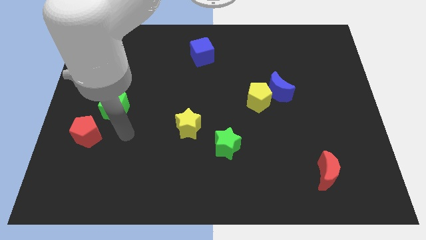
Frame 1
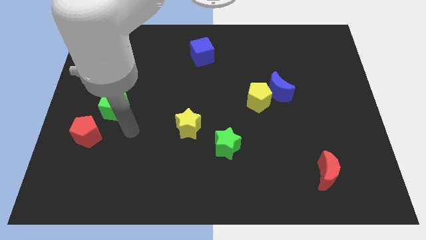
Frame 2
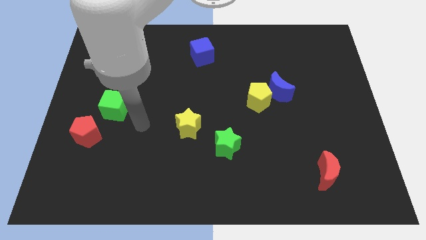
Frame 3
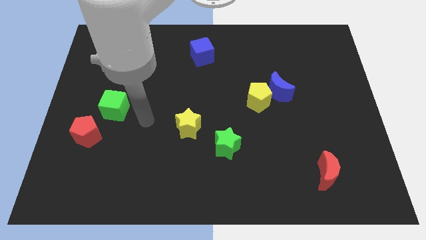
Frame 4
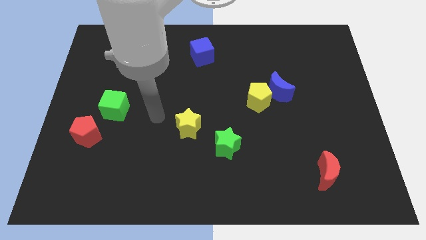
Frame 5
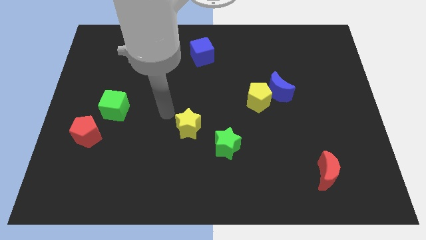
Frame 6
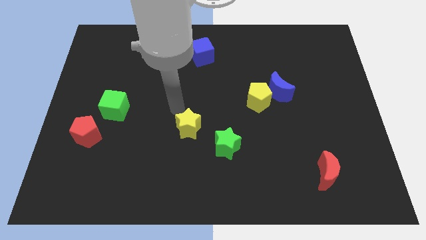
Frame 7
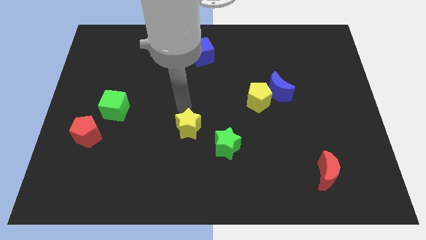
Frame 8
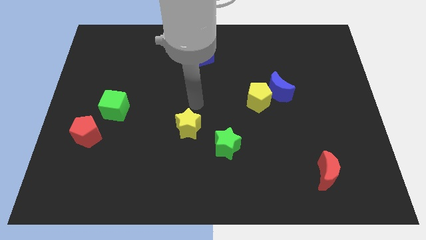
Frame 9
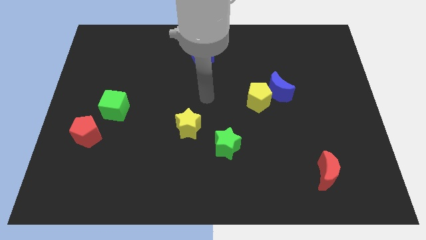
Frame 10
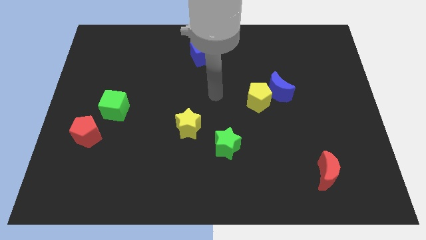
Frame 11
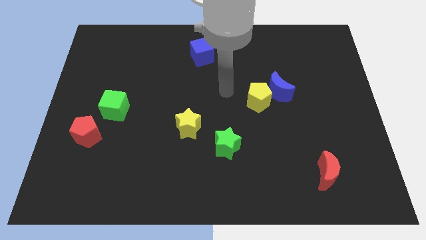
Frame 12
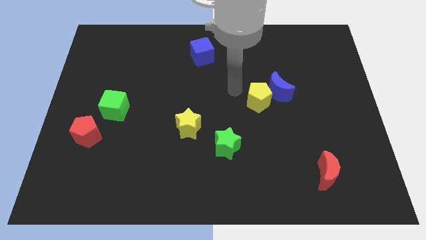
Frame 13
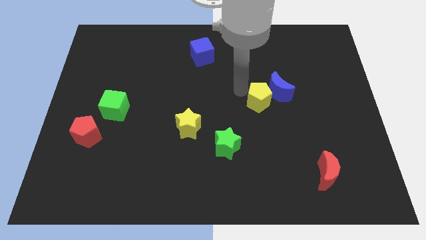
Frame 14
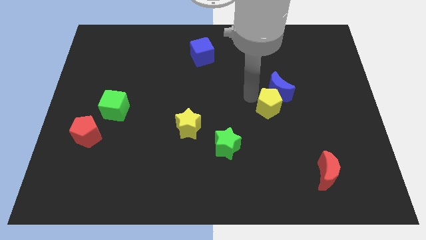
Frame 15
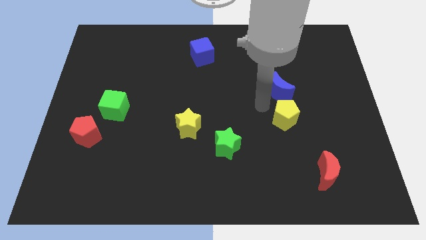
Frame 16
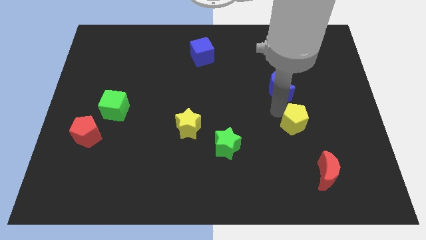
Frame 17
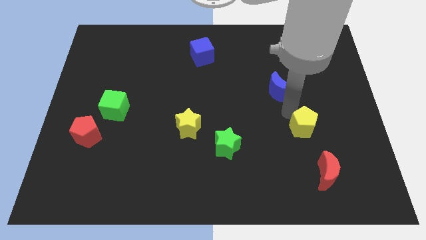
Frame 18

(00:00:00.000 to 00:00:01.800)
pull the blue moon apart from the yellow pentagon

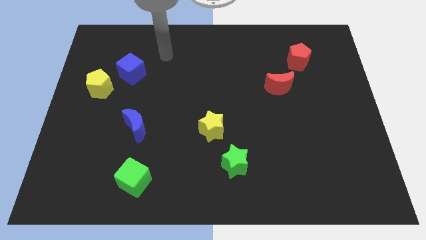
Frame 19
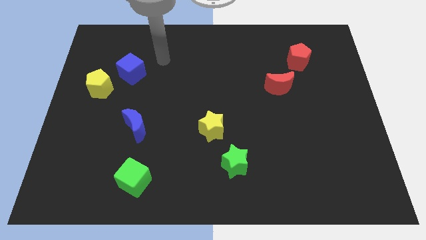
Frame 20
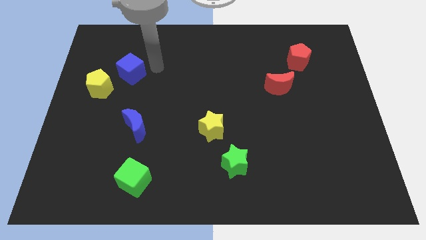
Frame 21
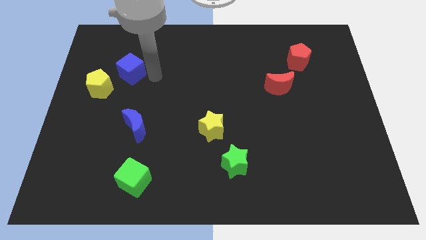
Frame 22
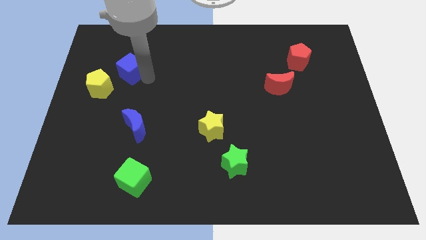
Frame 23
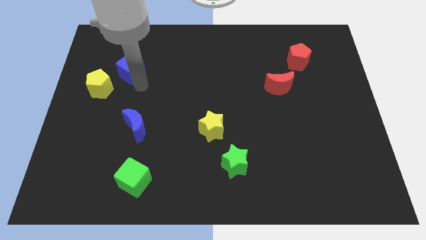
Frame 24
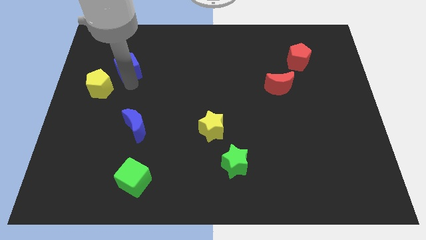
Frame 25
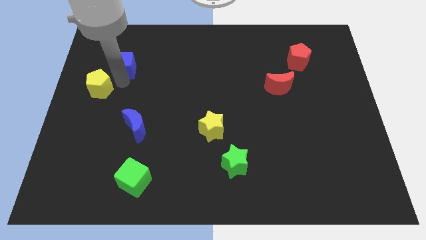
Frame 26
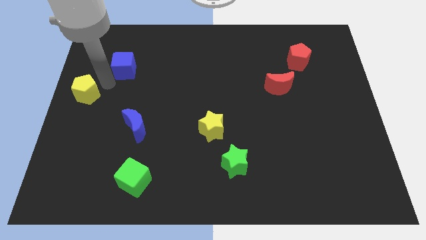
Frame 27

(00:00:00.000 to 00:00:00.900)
move the blue cube away from the yellow pentagon

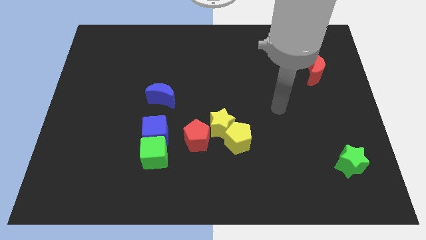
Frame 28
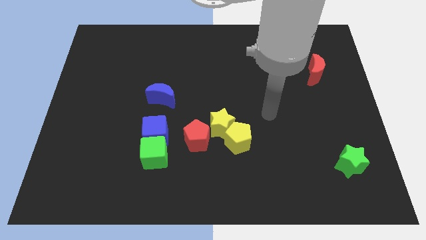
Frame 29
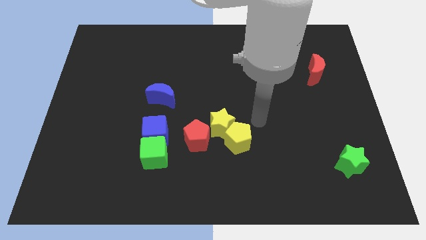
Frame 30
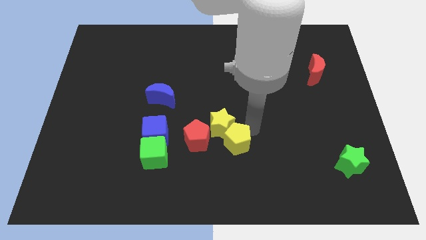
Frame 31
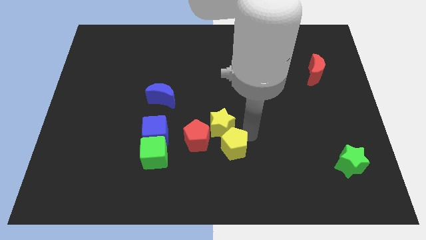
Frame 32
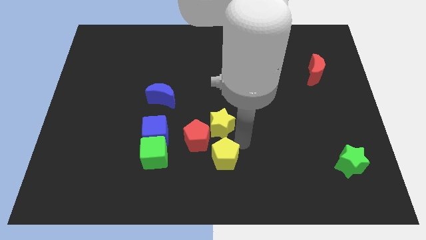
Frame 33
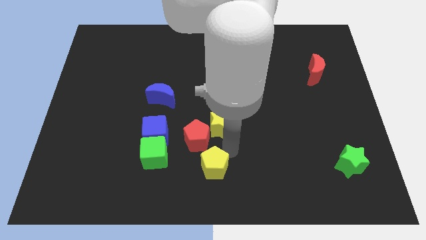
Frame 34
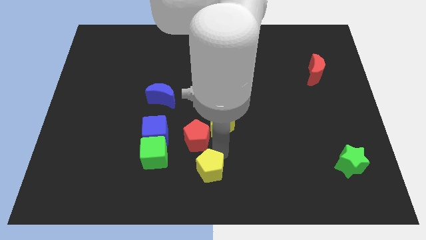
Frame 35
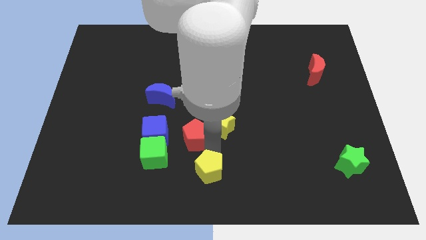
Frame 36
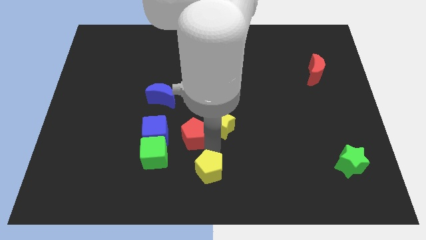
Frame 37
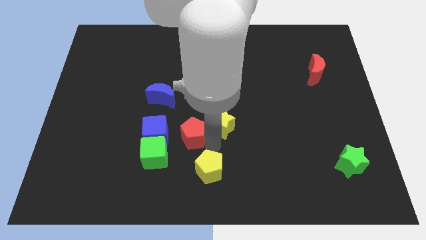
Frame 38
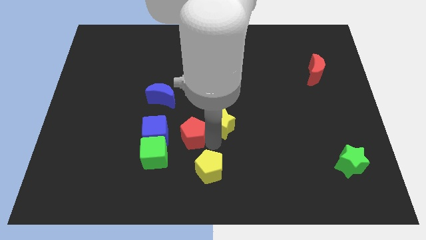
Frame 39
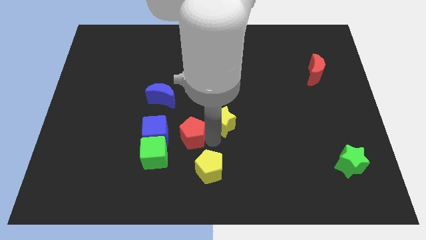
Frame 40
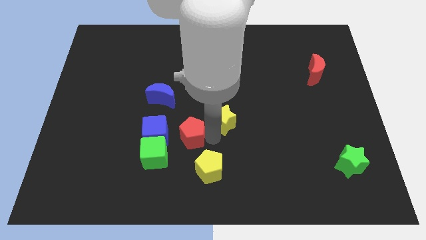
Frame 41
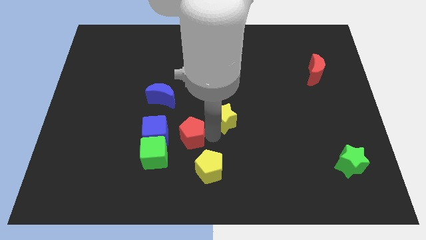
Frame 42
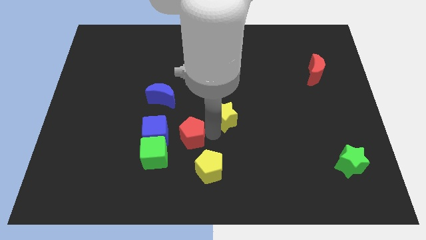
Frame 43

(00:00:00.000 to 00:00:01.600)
pull the yellow star apart from the yellow pentagon and red pentagon

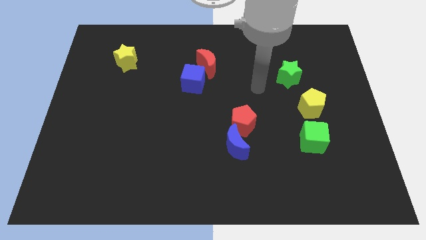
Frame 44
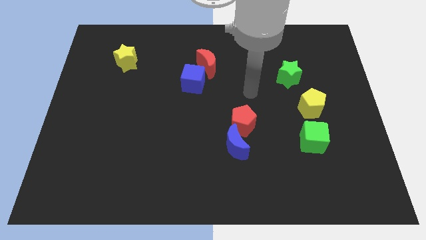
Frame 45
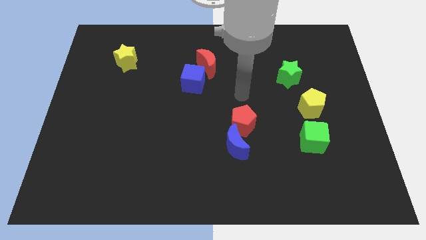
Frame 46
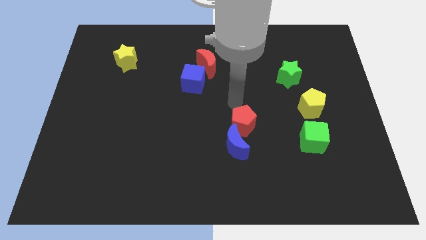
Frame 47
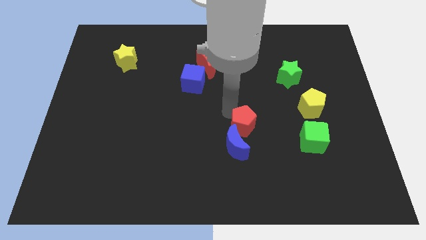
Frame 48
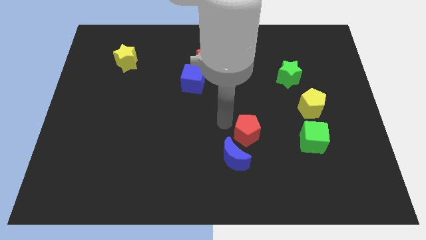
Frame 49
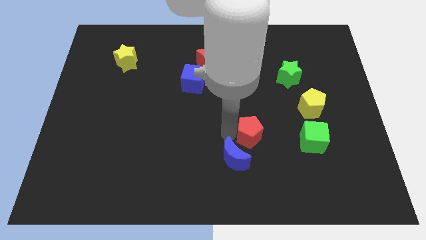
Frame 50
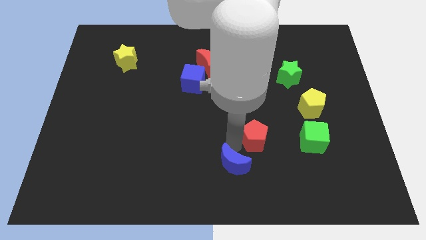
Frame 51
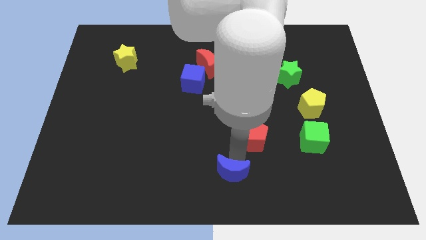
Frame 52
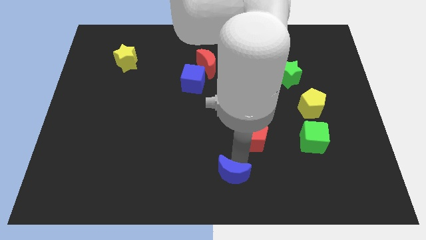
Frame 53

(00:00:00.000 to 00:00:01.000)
move the red pentagon away from the blue moon

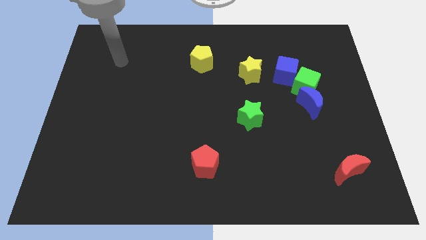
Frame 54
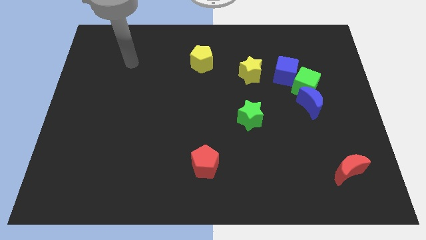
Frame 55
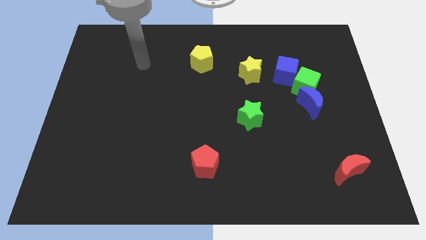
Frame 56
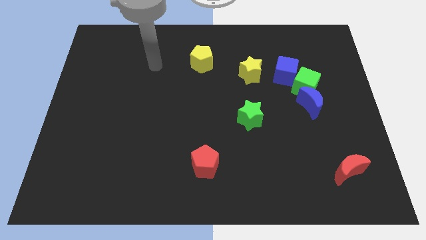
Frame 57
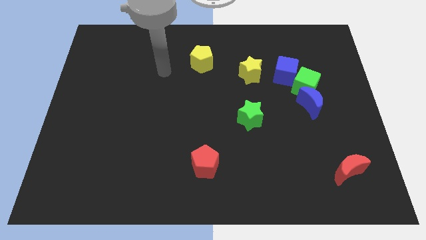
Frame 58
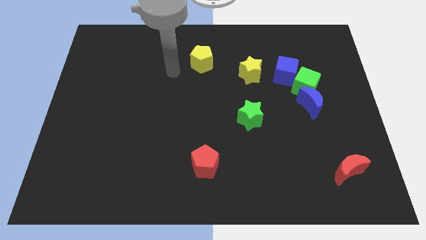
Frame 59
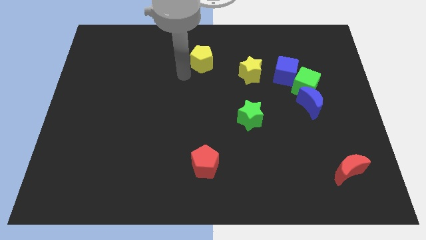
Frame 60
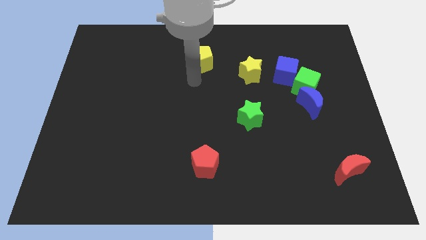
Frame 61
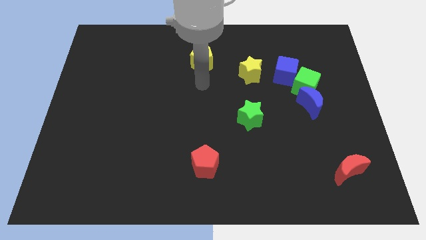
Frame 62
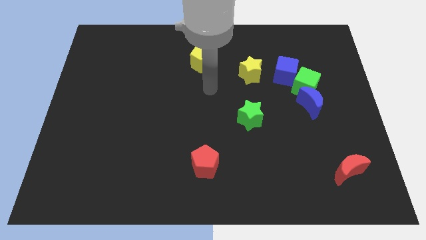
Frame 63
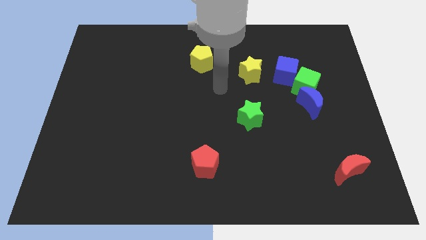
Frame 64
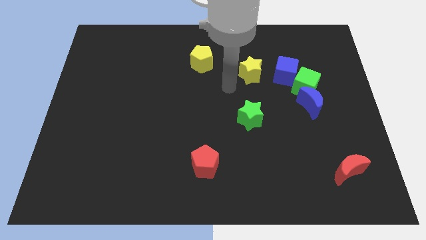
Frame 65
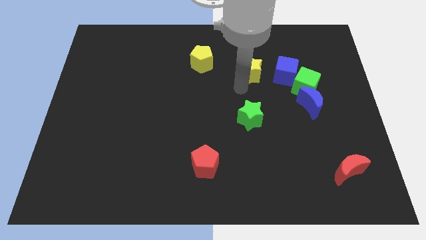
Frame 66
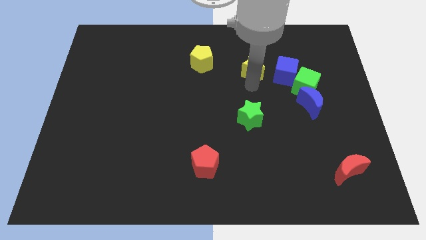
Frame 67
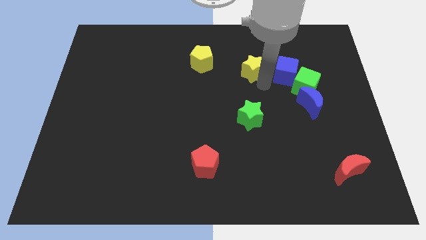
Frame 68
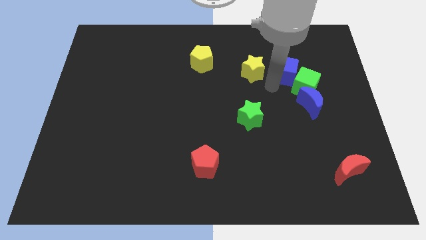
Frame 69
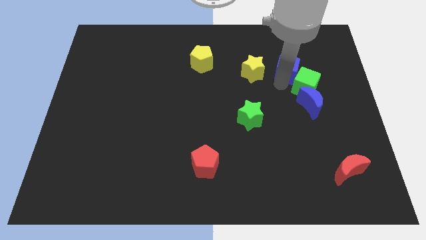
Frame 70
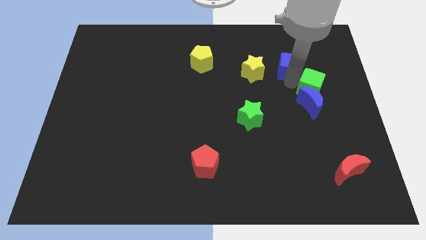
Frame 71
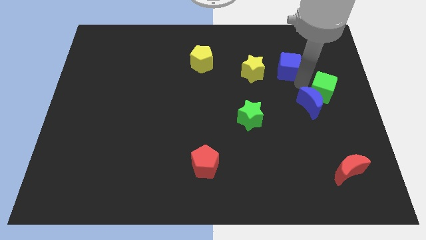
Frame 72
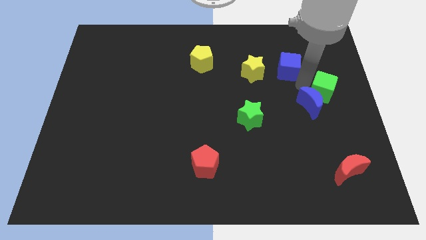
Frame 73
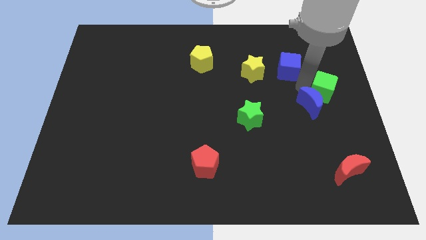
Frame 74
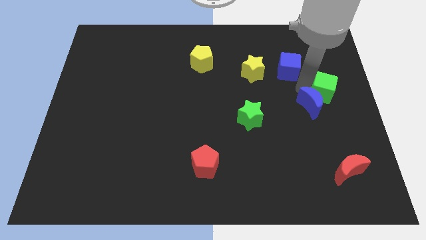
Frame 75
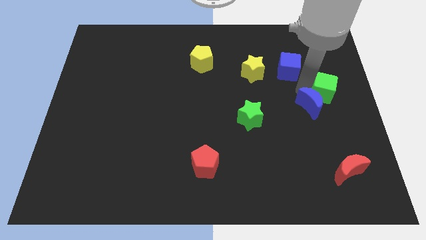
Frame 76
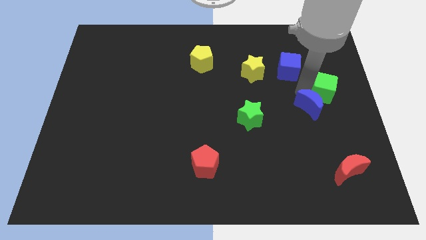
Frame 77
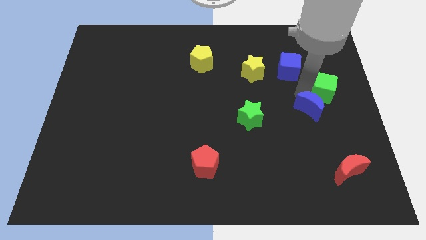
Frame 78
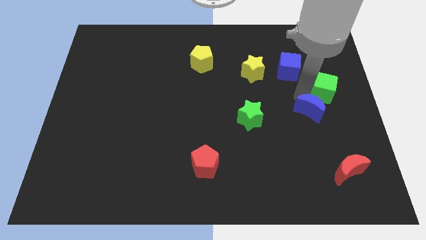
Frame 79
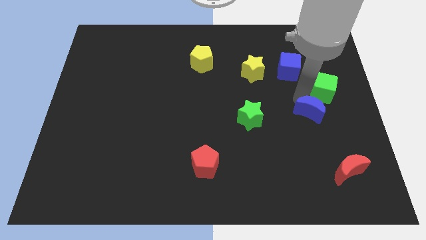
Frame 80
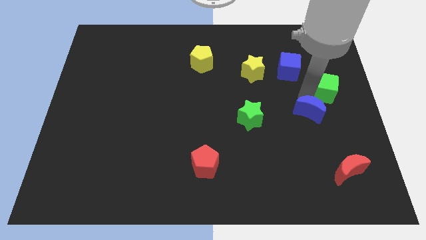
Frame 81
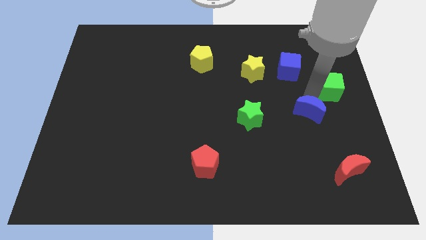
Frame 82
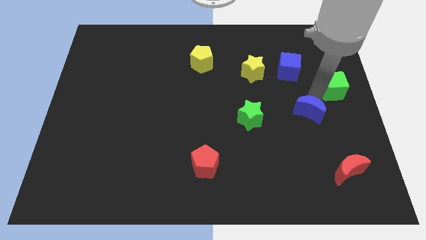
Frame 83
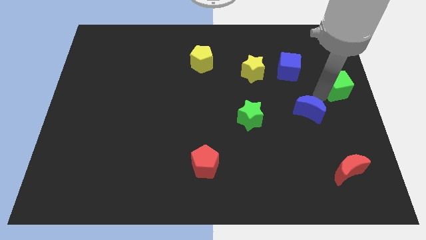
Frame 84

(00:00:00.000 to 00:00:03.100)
separate the blue moon from the green cube

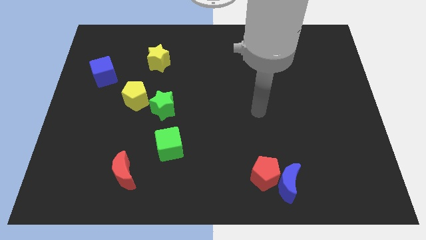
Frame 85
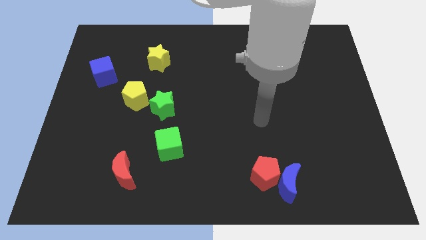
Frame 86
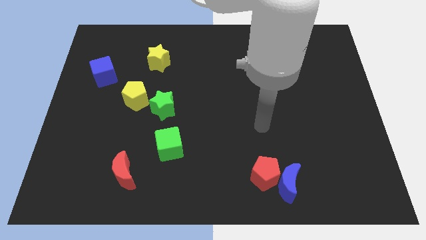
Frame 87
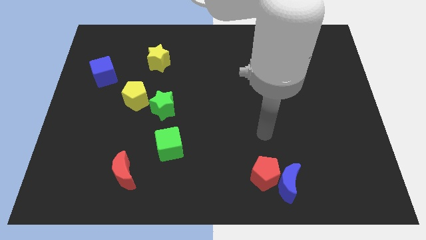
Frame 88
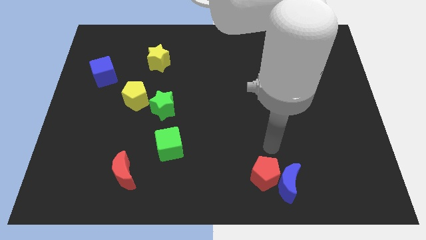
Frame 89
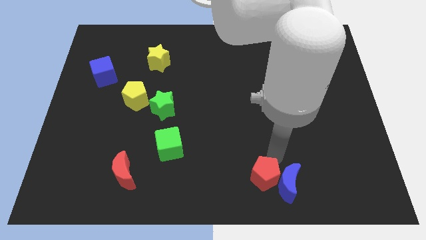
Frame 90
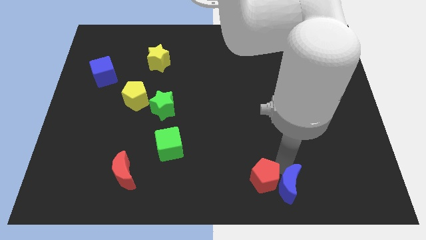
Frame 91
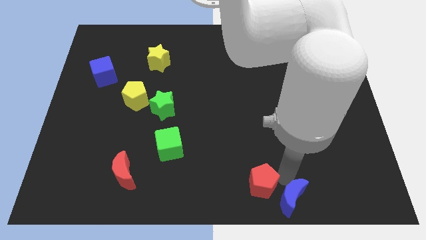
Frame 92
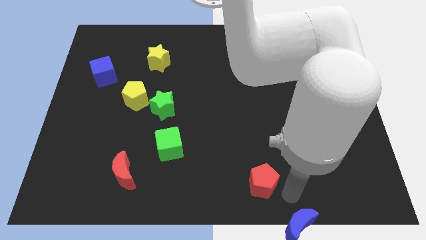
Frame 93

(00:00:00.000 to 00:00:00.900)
pull the red pentagon apart from the blue moon

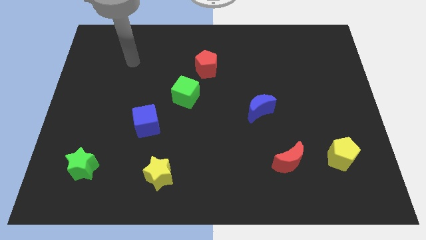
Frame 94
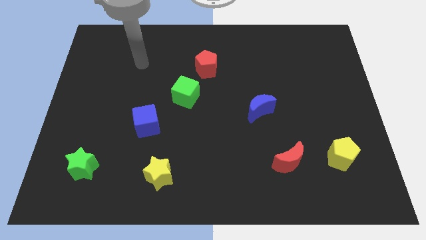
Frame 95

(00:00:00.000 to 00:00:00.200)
separate the red pentagon from the green cube
